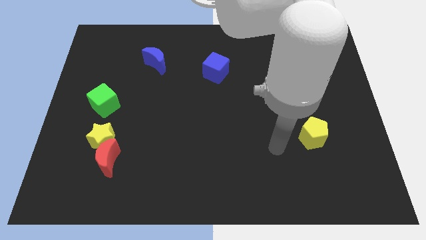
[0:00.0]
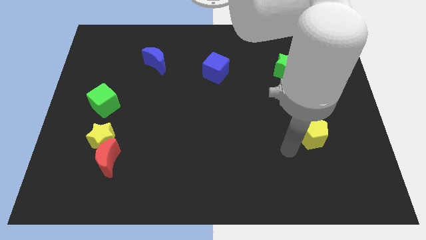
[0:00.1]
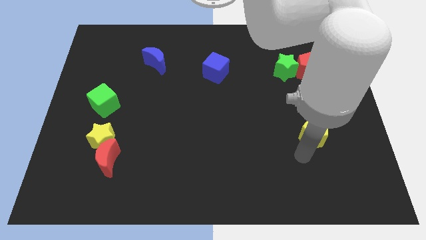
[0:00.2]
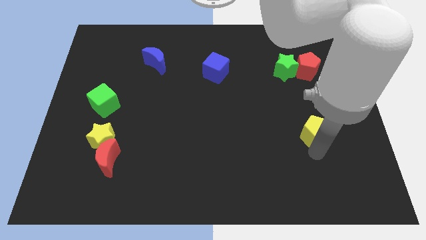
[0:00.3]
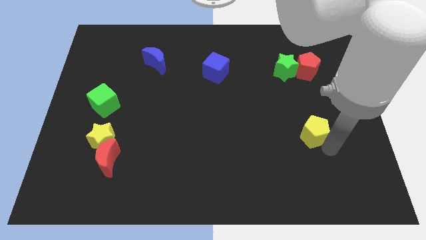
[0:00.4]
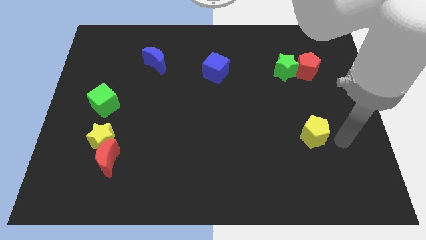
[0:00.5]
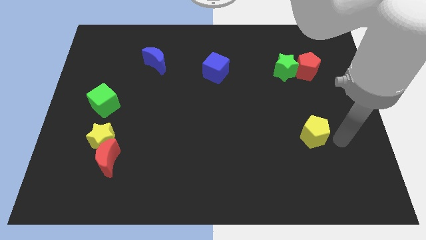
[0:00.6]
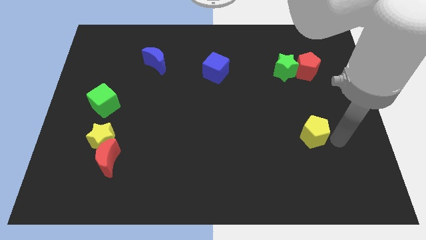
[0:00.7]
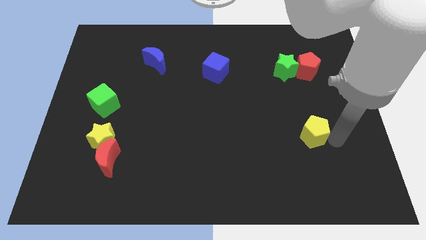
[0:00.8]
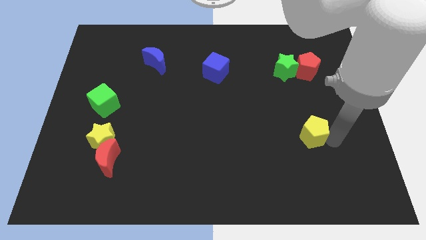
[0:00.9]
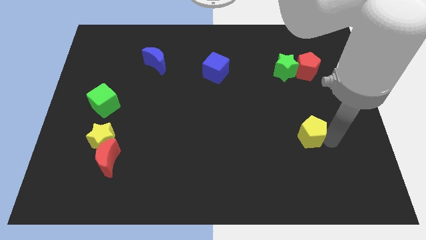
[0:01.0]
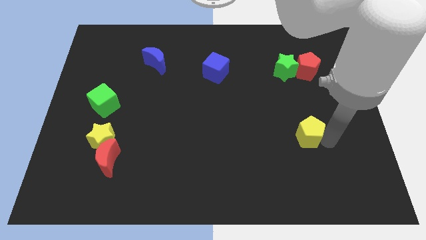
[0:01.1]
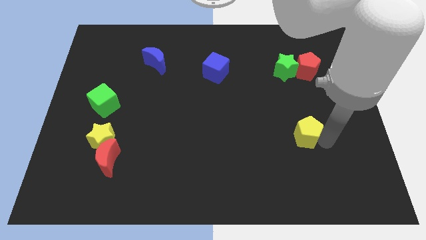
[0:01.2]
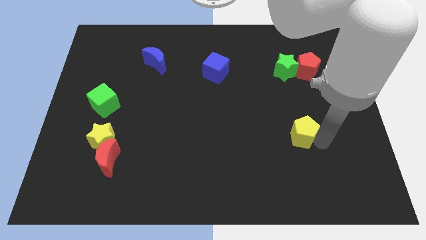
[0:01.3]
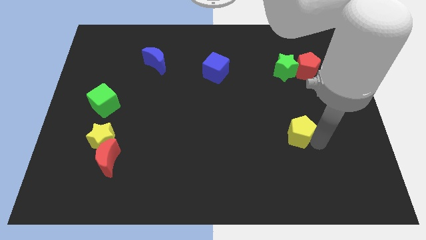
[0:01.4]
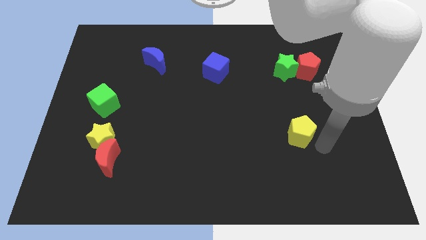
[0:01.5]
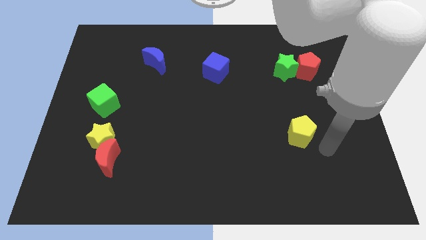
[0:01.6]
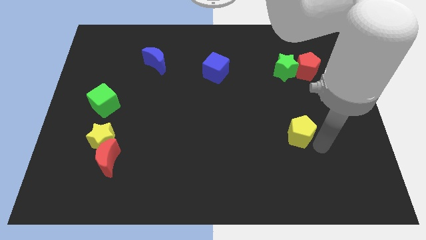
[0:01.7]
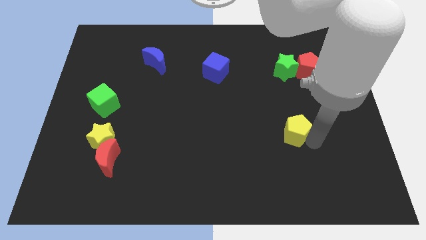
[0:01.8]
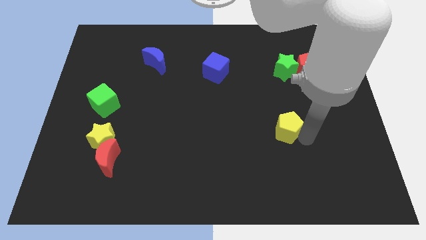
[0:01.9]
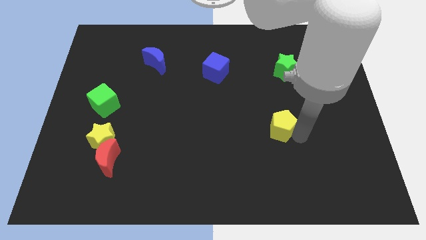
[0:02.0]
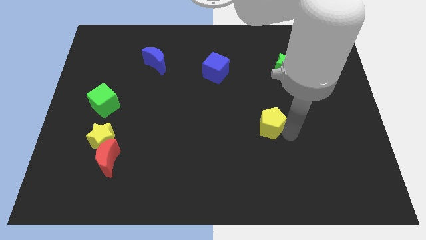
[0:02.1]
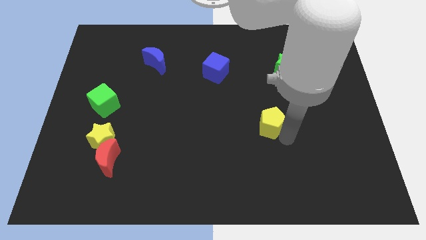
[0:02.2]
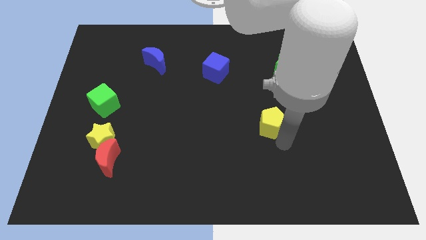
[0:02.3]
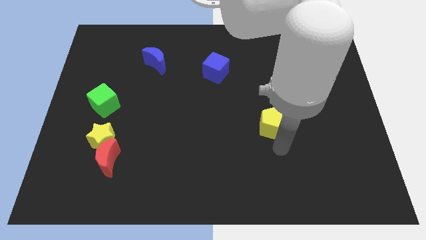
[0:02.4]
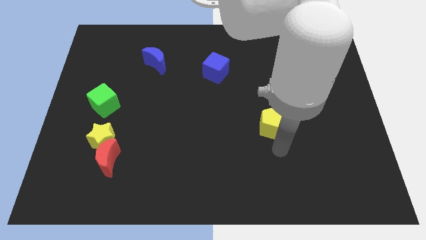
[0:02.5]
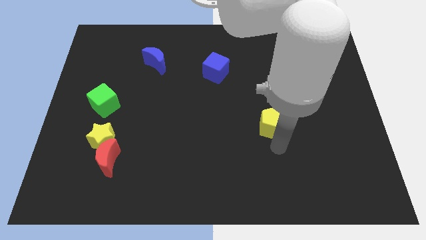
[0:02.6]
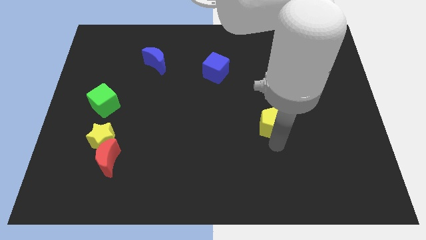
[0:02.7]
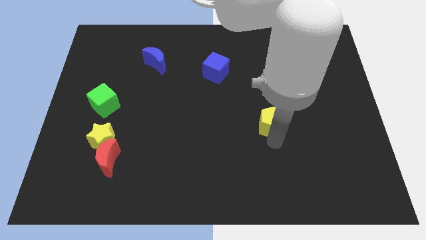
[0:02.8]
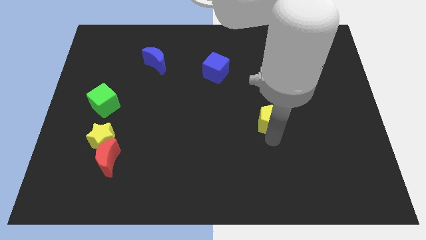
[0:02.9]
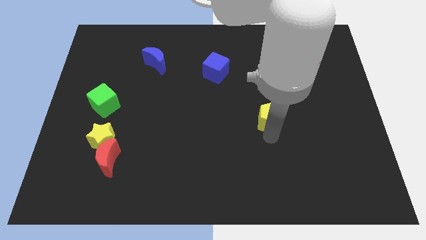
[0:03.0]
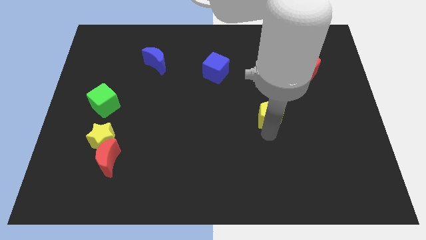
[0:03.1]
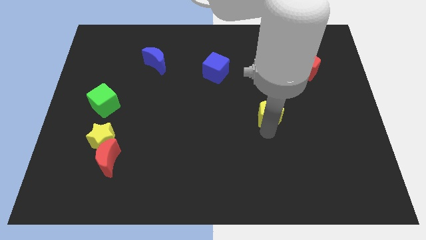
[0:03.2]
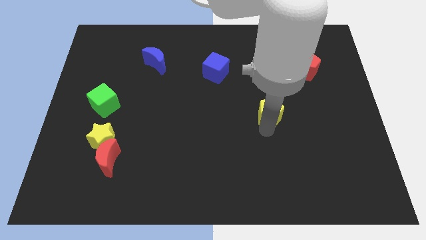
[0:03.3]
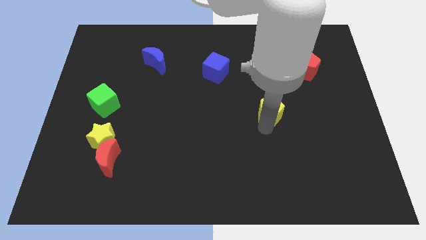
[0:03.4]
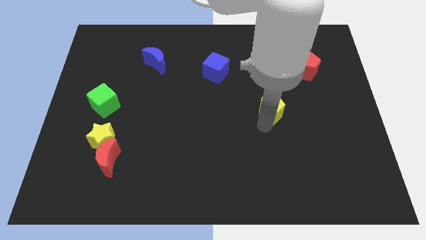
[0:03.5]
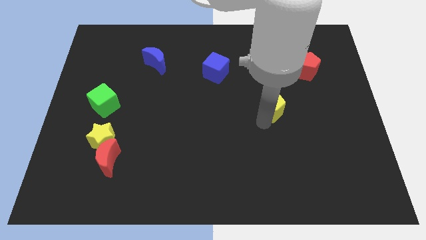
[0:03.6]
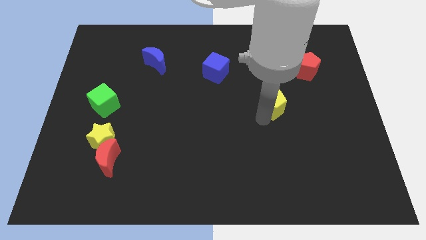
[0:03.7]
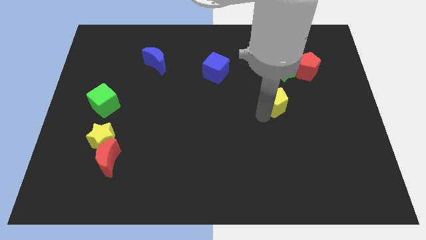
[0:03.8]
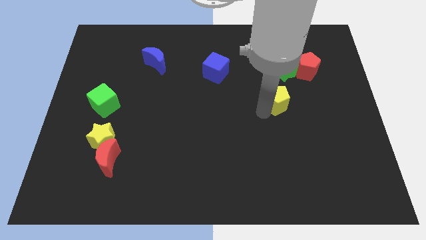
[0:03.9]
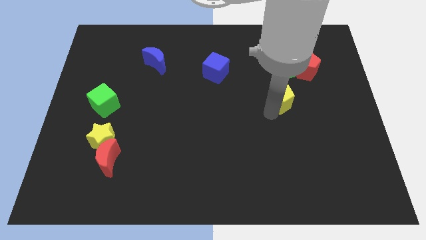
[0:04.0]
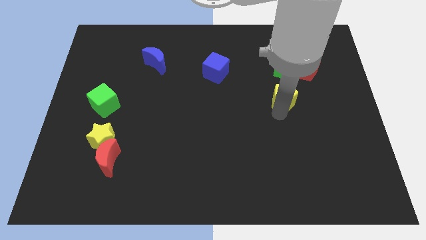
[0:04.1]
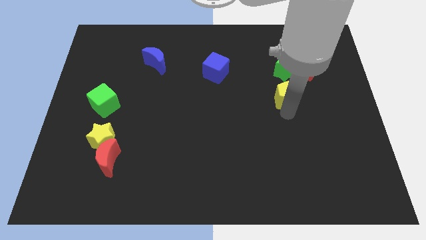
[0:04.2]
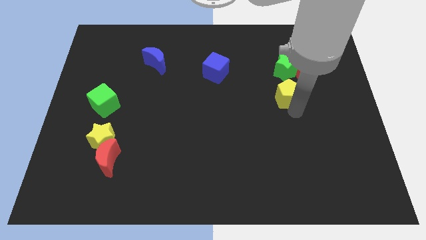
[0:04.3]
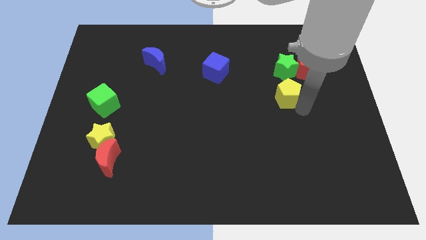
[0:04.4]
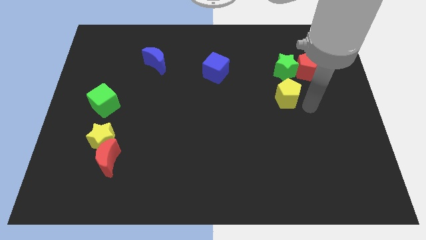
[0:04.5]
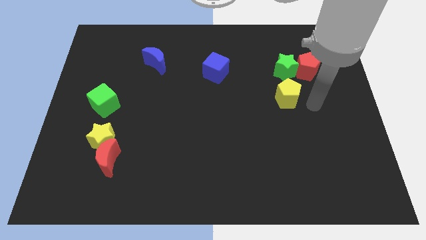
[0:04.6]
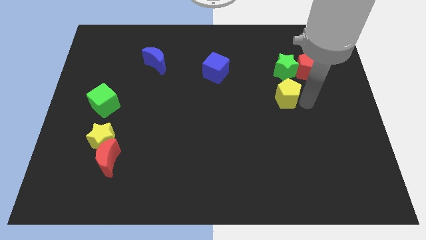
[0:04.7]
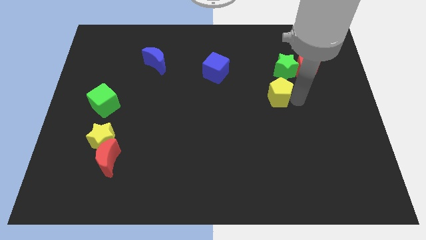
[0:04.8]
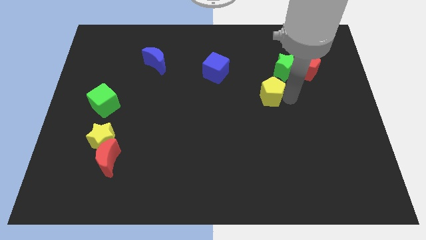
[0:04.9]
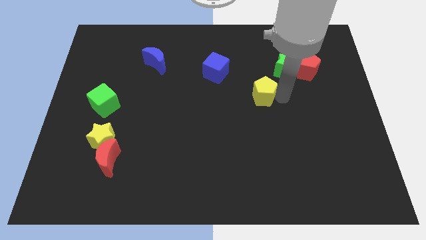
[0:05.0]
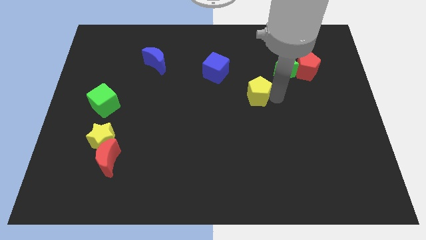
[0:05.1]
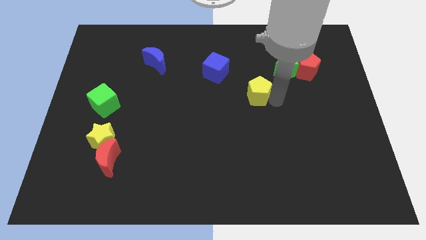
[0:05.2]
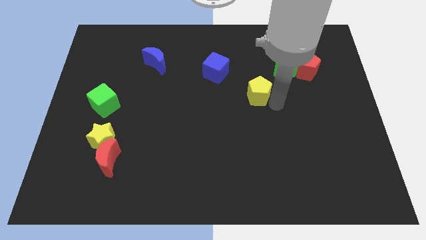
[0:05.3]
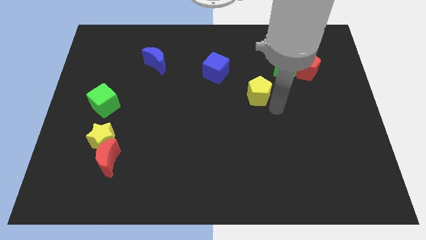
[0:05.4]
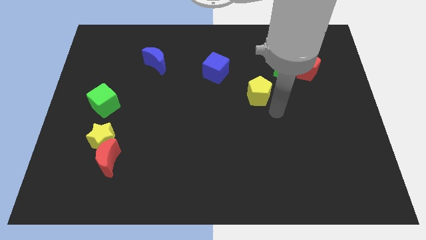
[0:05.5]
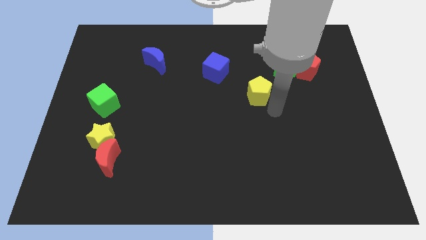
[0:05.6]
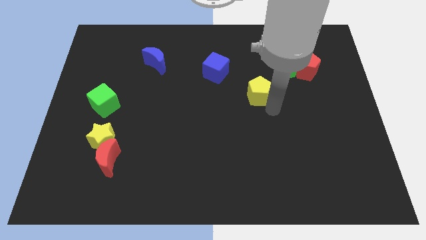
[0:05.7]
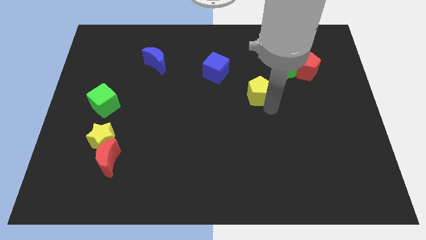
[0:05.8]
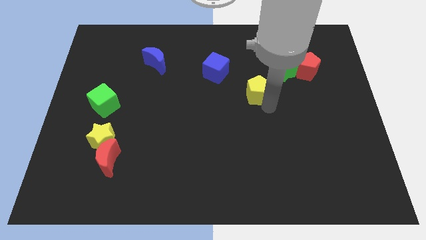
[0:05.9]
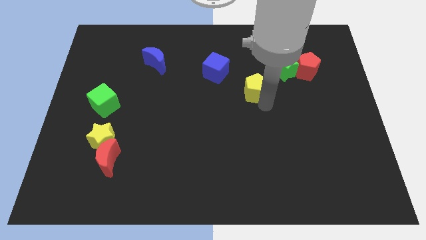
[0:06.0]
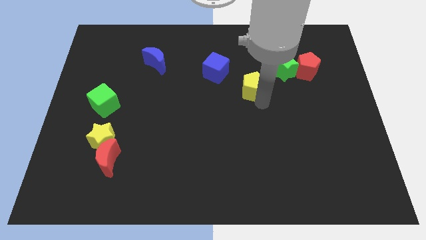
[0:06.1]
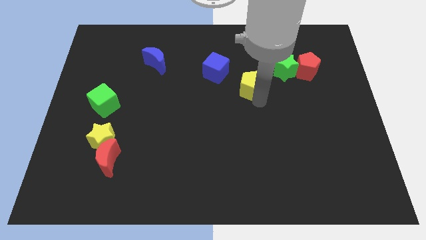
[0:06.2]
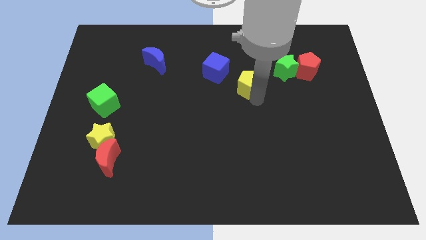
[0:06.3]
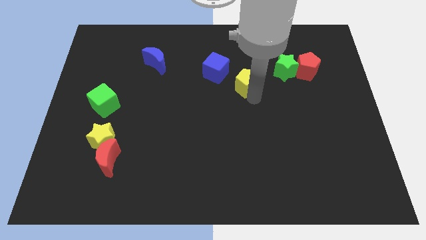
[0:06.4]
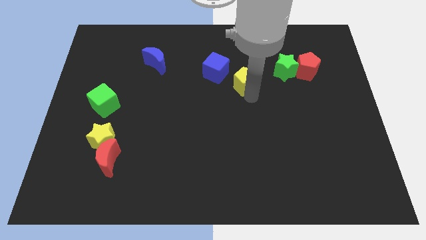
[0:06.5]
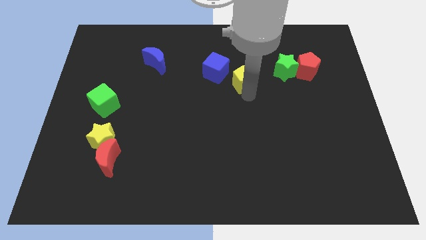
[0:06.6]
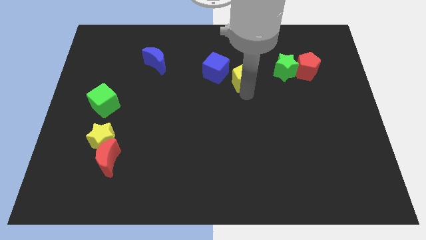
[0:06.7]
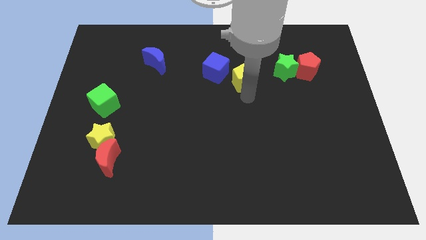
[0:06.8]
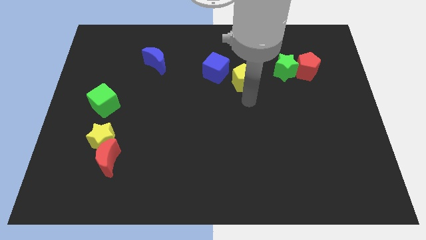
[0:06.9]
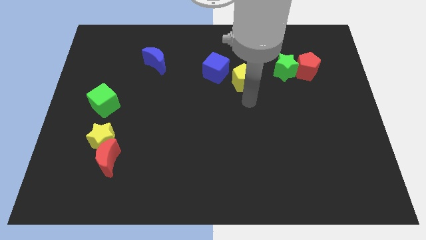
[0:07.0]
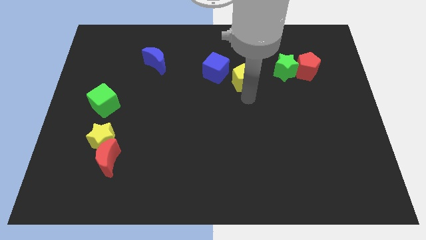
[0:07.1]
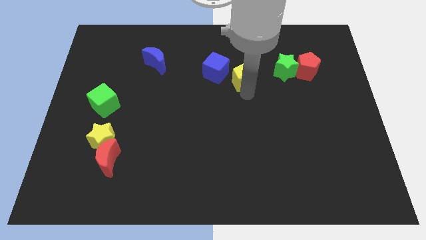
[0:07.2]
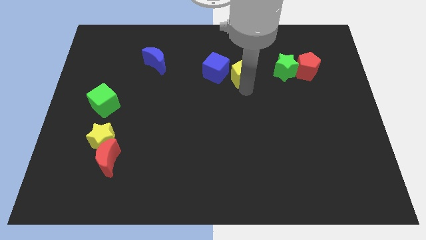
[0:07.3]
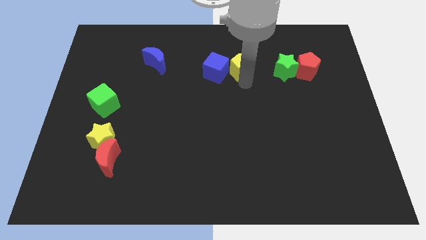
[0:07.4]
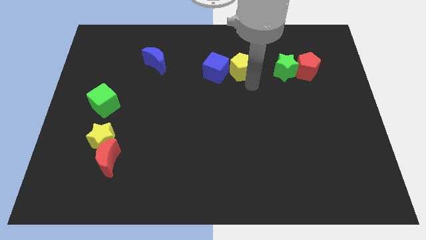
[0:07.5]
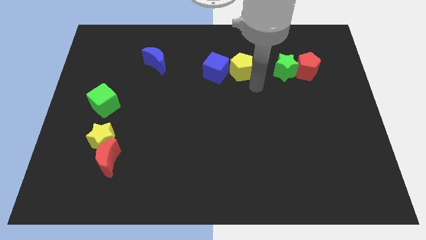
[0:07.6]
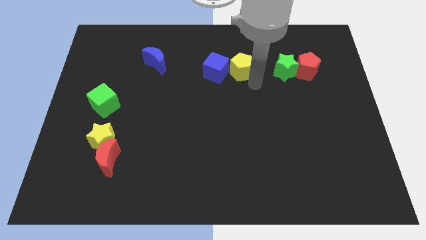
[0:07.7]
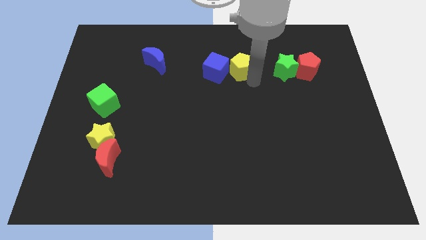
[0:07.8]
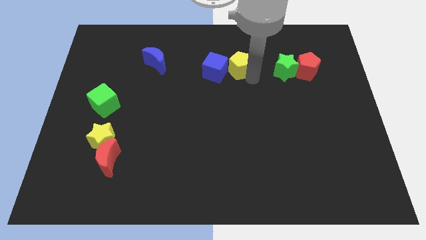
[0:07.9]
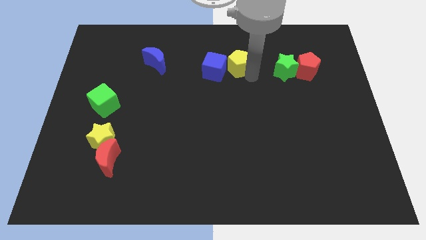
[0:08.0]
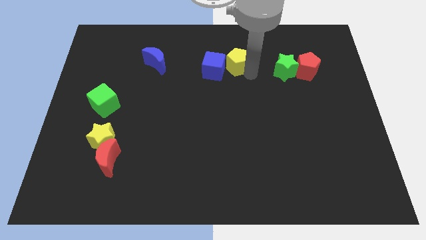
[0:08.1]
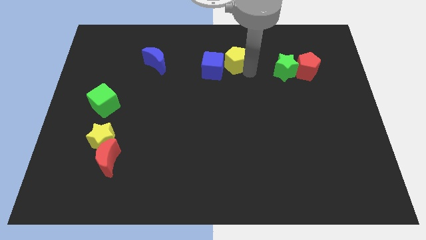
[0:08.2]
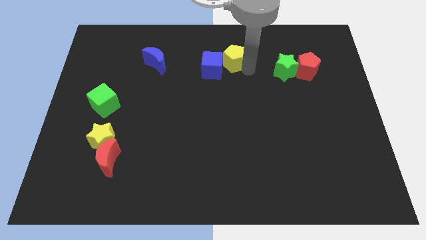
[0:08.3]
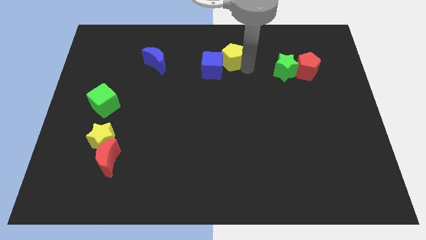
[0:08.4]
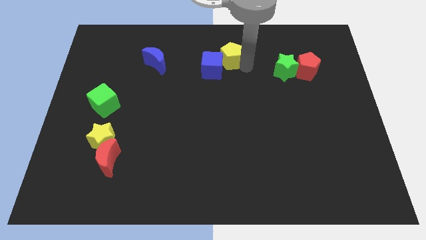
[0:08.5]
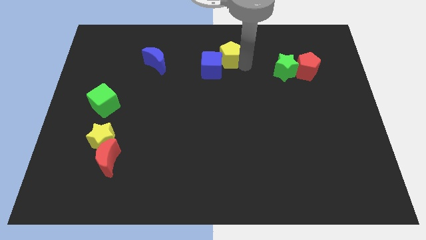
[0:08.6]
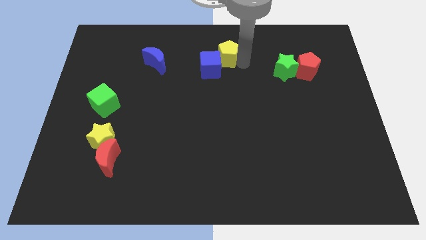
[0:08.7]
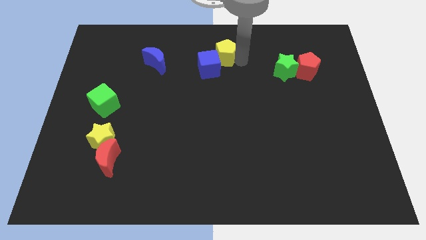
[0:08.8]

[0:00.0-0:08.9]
put the yellow pentagon to the towards your base
